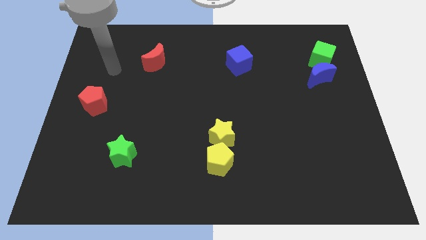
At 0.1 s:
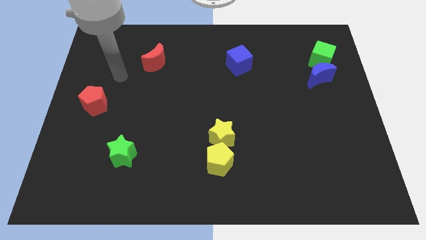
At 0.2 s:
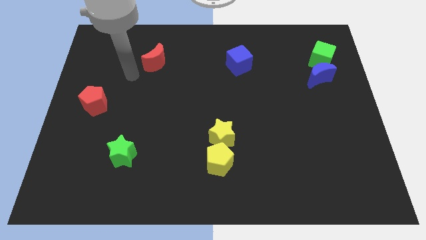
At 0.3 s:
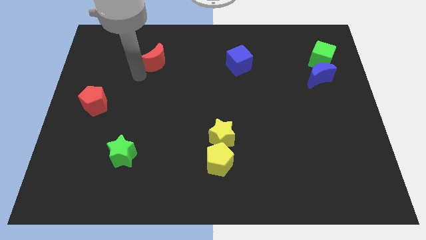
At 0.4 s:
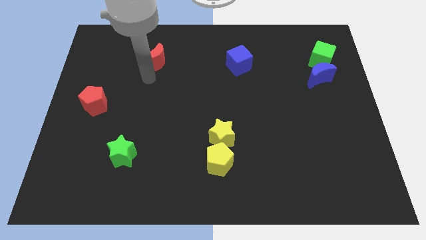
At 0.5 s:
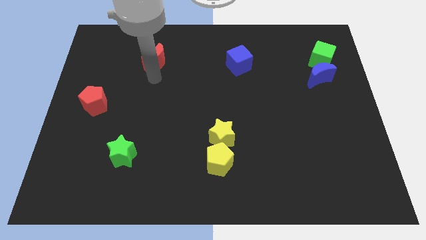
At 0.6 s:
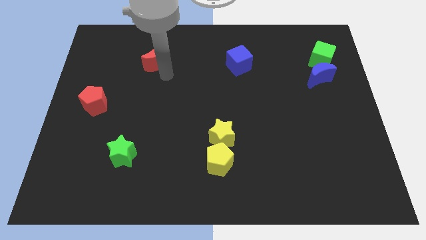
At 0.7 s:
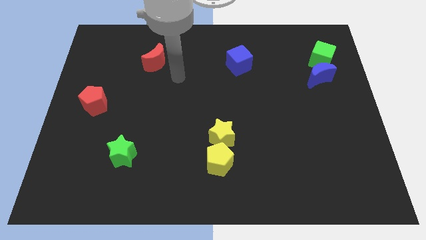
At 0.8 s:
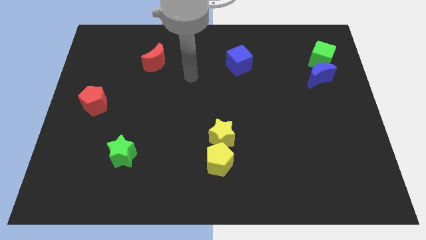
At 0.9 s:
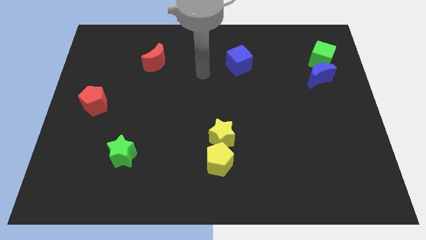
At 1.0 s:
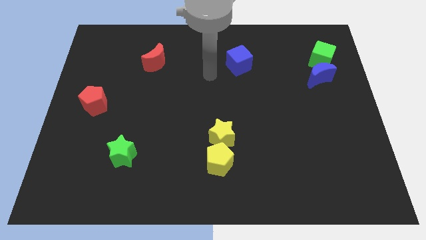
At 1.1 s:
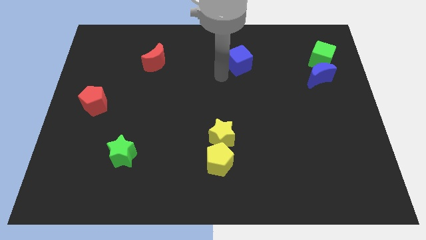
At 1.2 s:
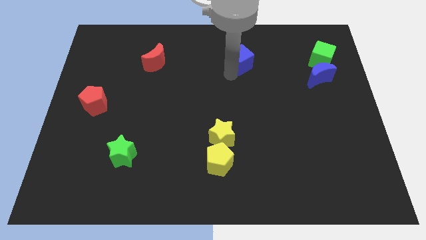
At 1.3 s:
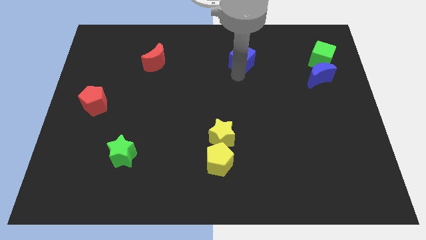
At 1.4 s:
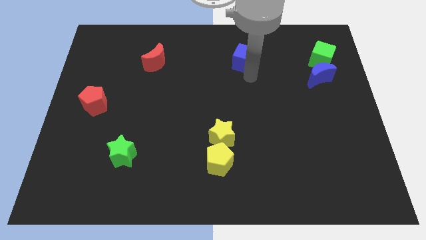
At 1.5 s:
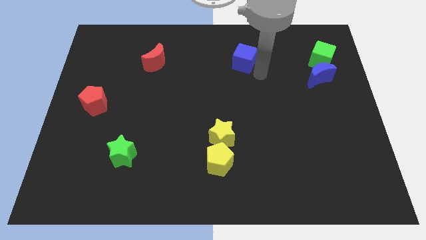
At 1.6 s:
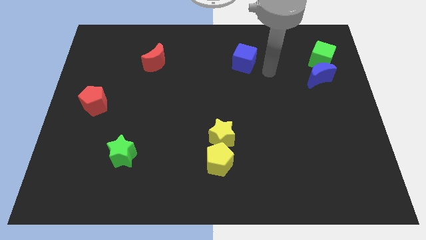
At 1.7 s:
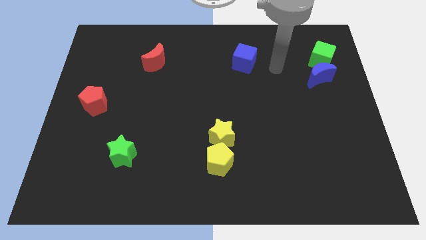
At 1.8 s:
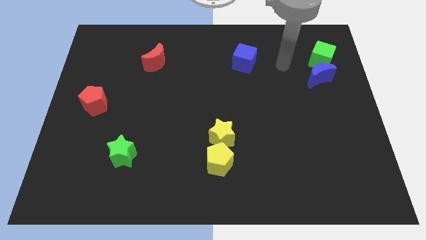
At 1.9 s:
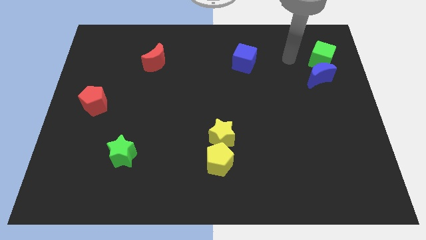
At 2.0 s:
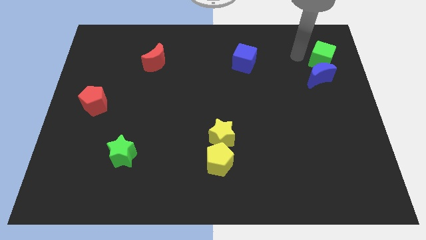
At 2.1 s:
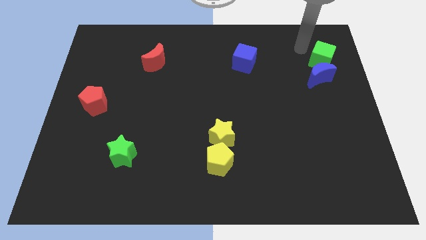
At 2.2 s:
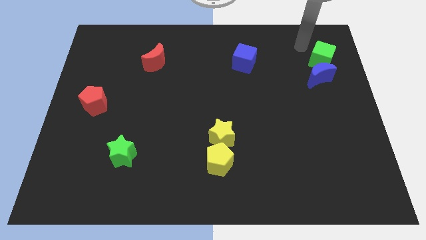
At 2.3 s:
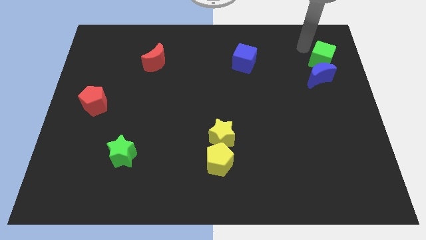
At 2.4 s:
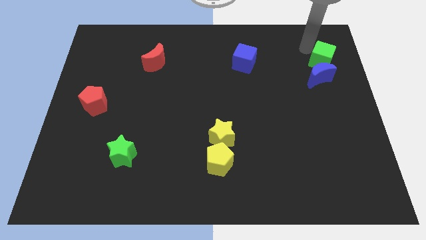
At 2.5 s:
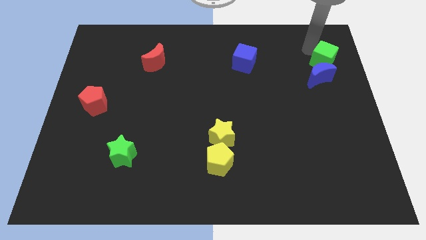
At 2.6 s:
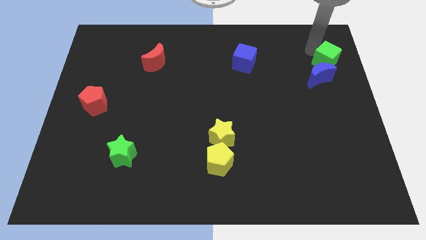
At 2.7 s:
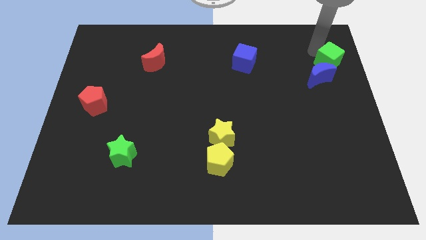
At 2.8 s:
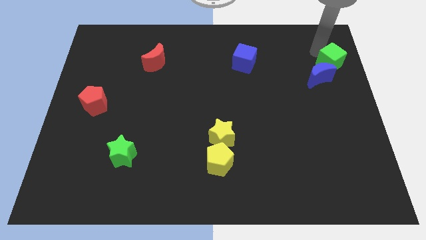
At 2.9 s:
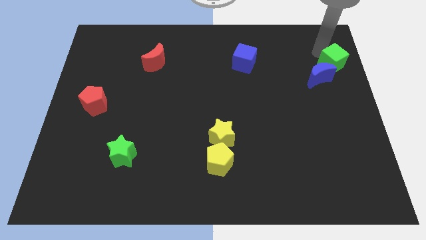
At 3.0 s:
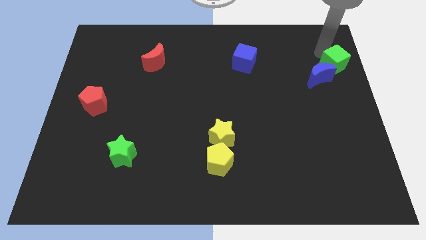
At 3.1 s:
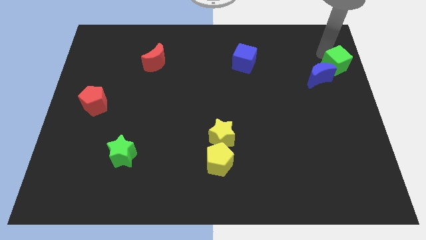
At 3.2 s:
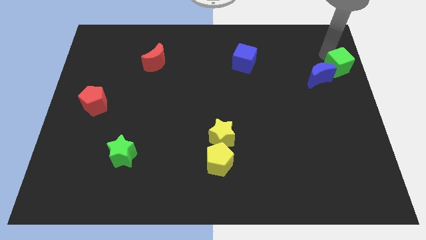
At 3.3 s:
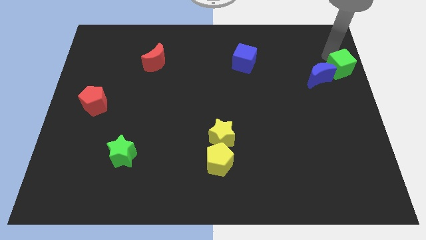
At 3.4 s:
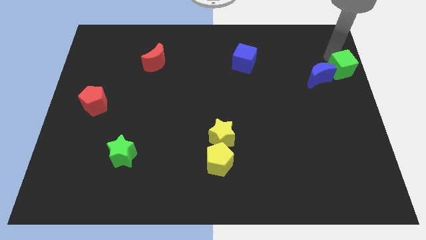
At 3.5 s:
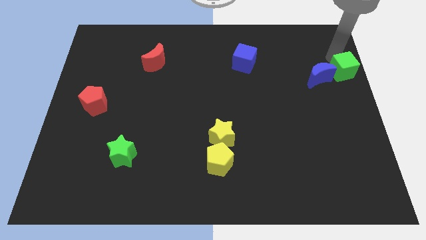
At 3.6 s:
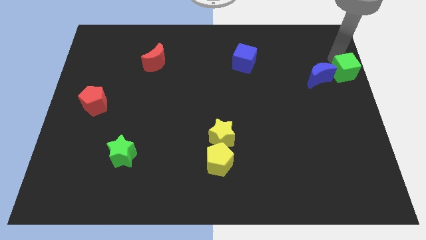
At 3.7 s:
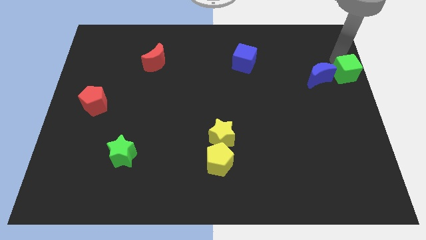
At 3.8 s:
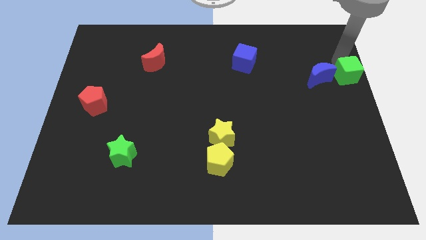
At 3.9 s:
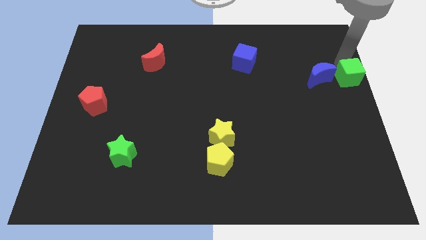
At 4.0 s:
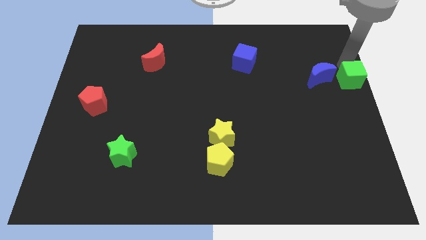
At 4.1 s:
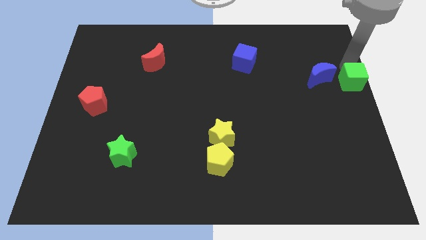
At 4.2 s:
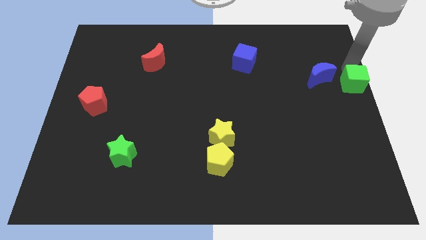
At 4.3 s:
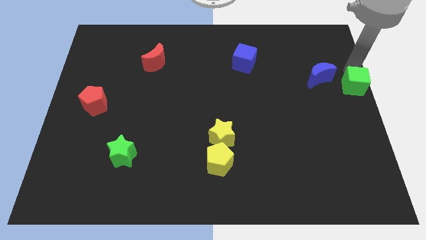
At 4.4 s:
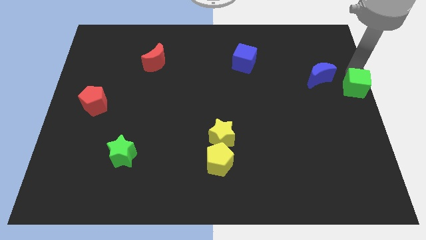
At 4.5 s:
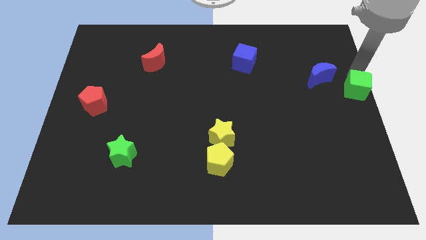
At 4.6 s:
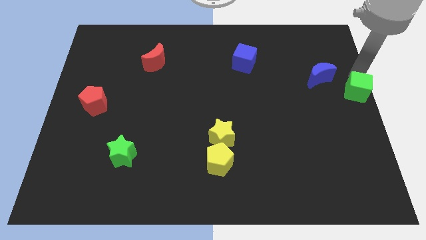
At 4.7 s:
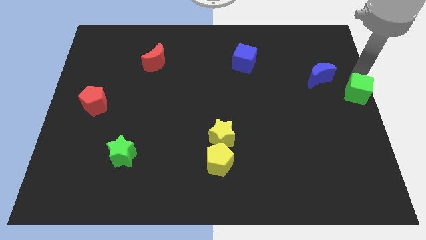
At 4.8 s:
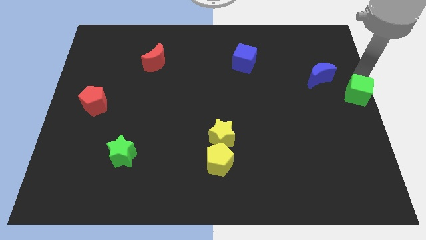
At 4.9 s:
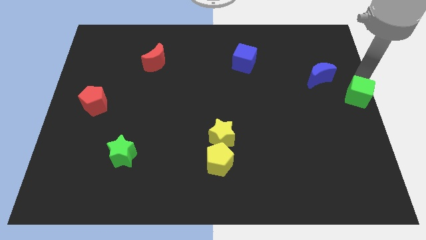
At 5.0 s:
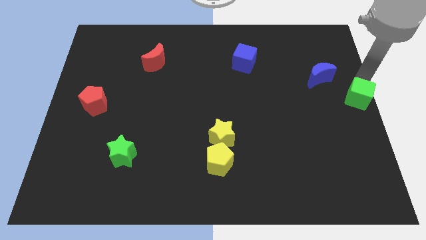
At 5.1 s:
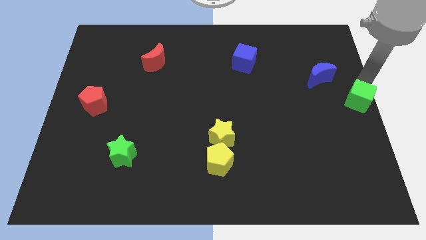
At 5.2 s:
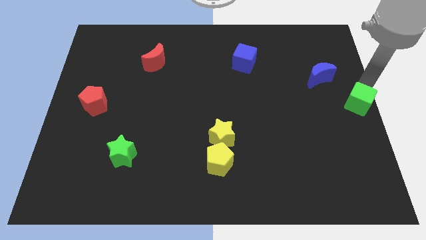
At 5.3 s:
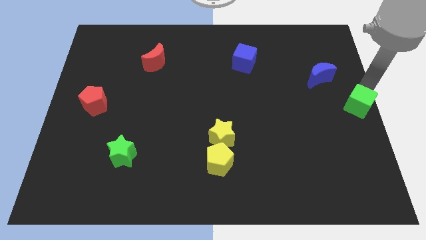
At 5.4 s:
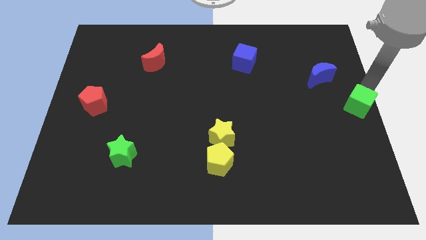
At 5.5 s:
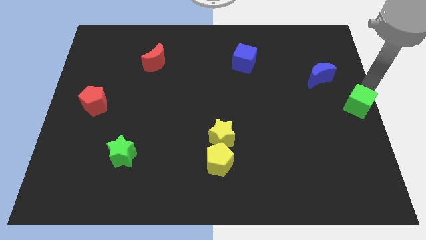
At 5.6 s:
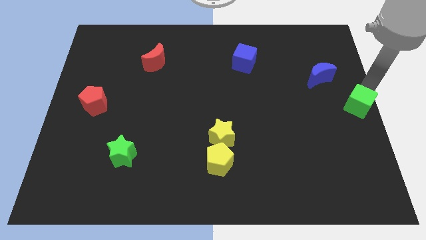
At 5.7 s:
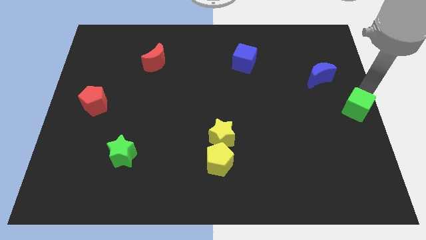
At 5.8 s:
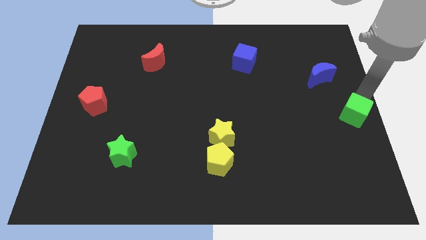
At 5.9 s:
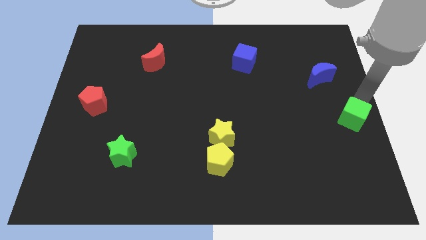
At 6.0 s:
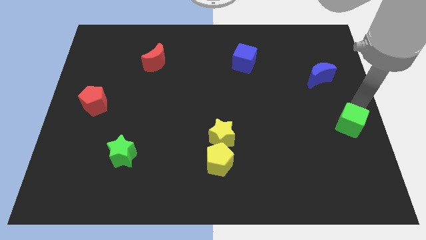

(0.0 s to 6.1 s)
slide the green cube down

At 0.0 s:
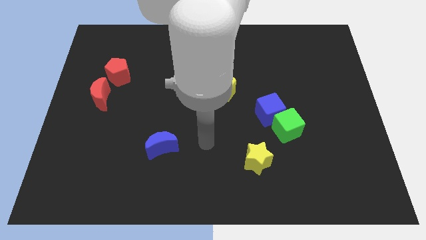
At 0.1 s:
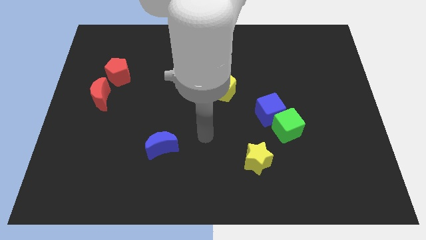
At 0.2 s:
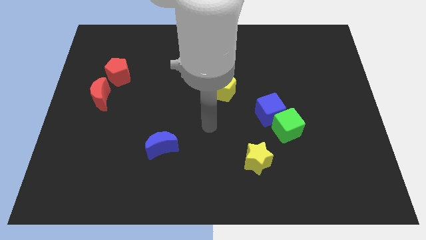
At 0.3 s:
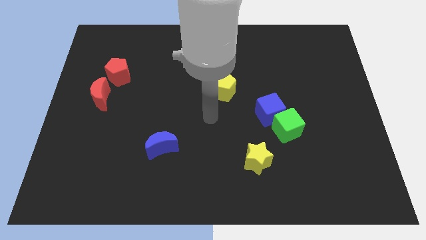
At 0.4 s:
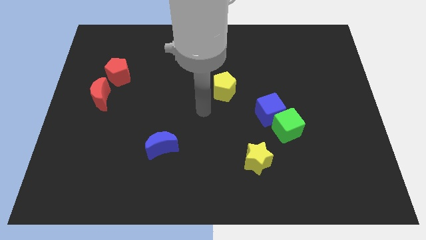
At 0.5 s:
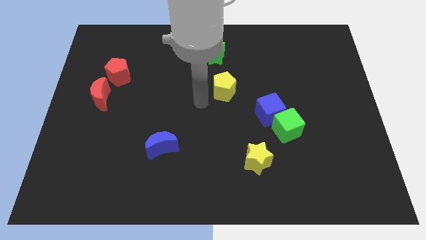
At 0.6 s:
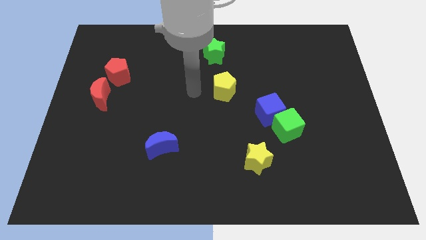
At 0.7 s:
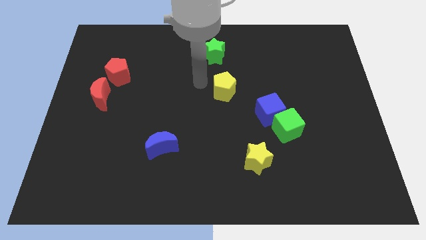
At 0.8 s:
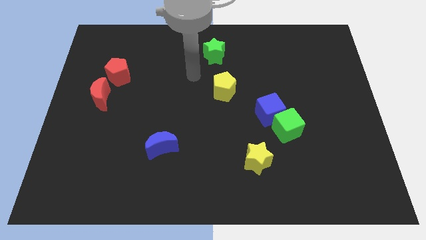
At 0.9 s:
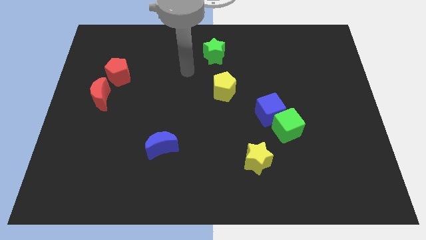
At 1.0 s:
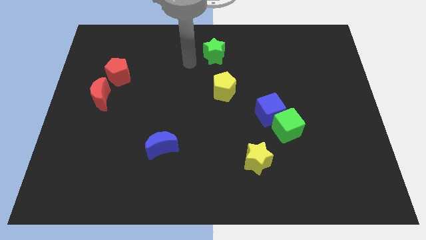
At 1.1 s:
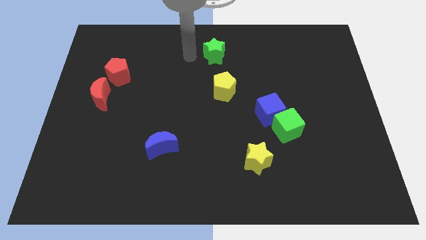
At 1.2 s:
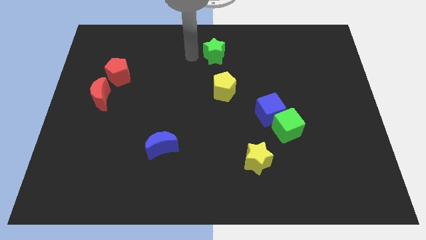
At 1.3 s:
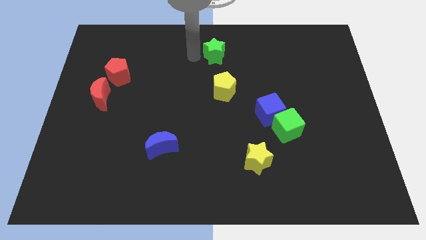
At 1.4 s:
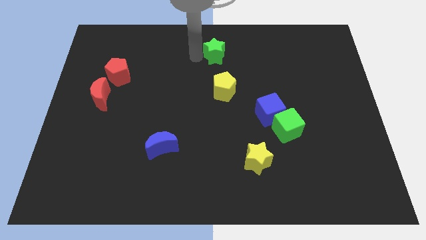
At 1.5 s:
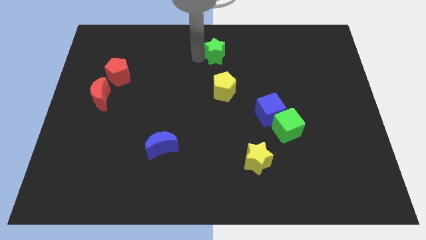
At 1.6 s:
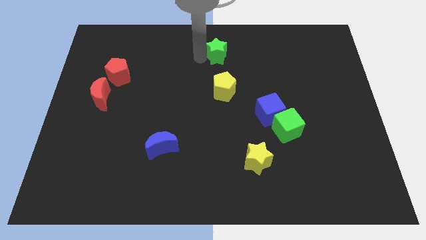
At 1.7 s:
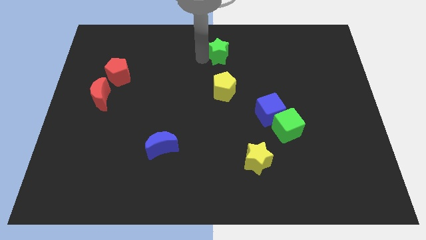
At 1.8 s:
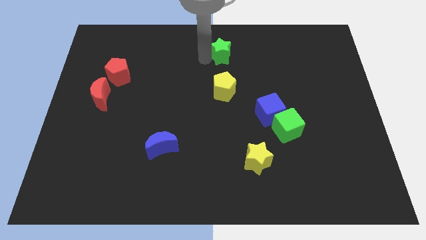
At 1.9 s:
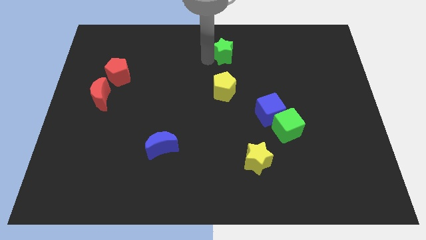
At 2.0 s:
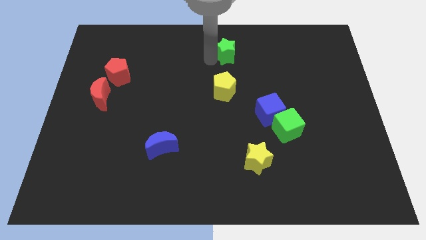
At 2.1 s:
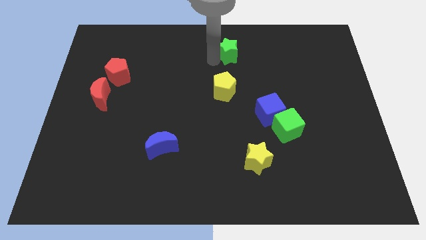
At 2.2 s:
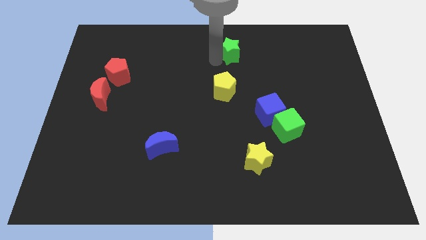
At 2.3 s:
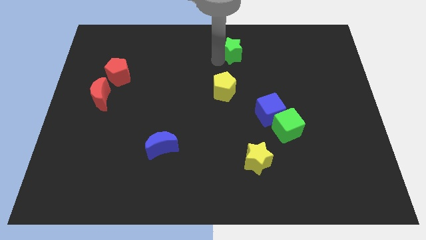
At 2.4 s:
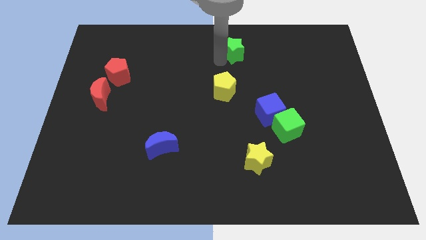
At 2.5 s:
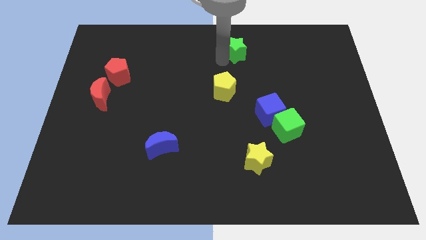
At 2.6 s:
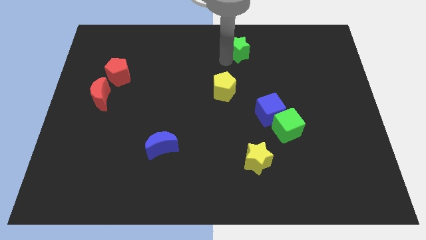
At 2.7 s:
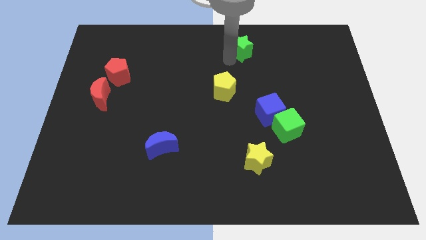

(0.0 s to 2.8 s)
slightly push the green star to the right
